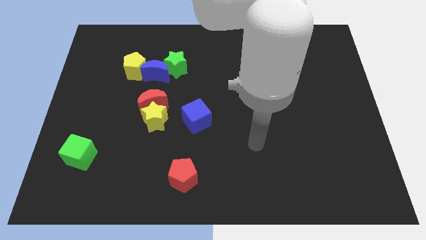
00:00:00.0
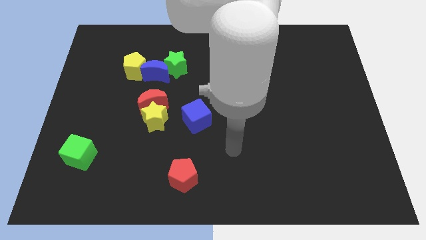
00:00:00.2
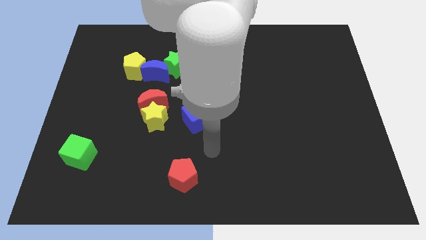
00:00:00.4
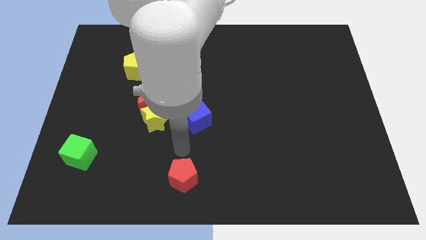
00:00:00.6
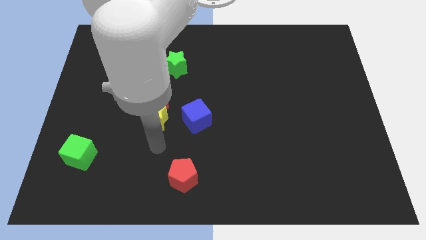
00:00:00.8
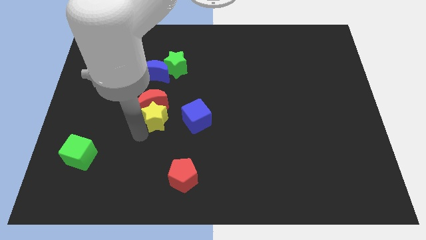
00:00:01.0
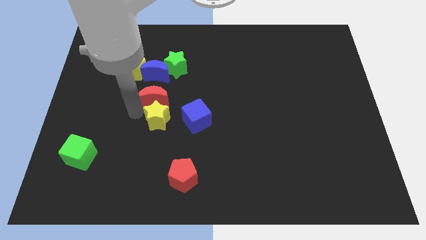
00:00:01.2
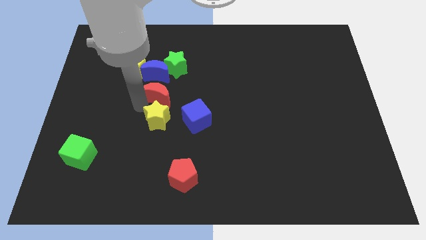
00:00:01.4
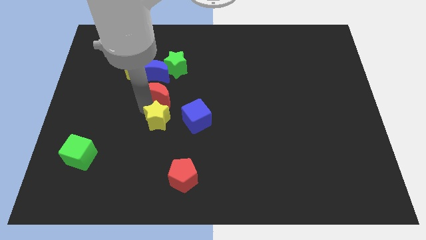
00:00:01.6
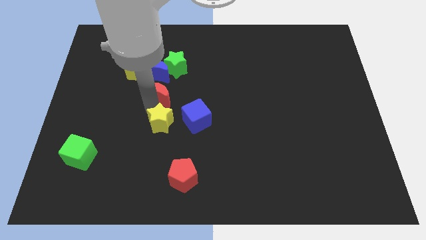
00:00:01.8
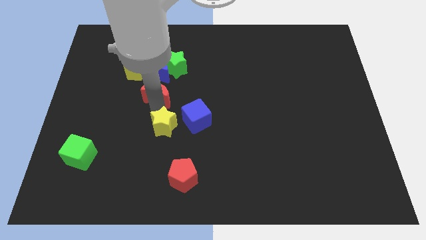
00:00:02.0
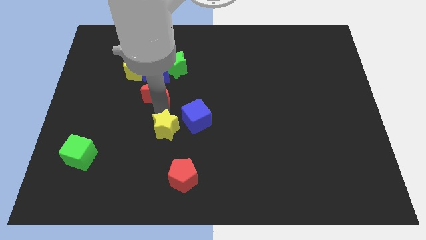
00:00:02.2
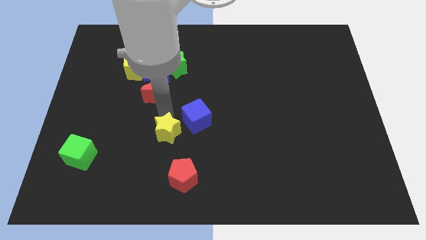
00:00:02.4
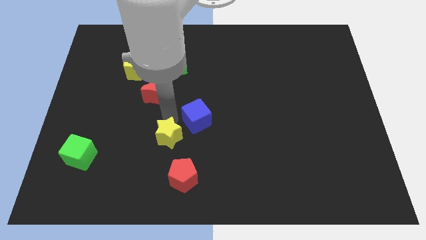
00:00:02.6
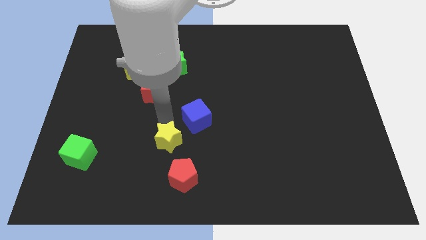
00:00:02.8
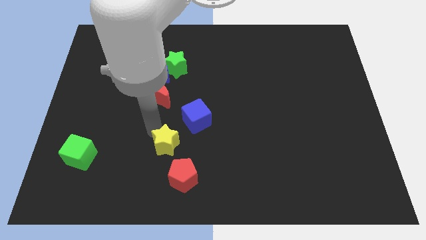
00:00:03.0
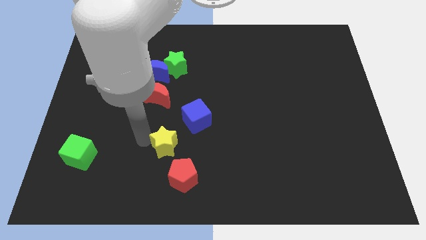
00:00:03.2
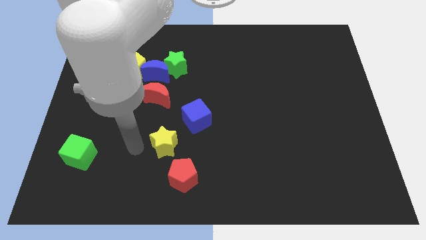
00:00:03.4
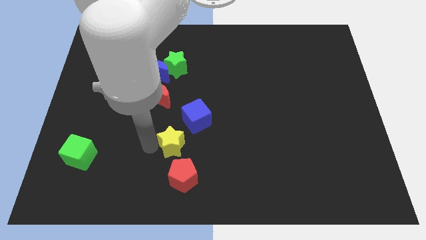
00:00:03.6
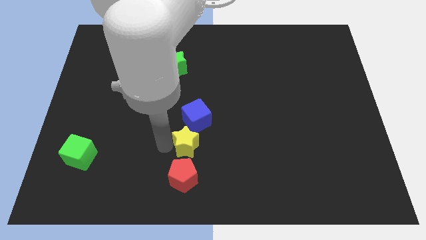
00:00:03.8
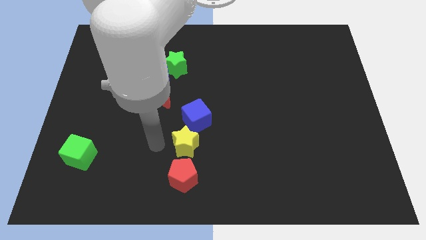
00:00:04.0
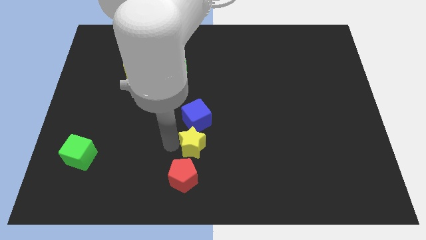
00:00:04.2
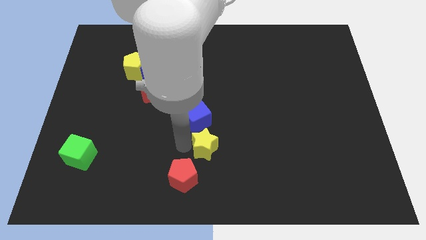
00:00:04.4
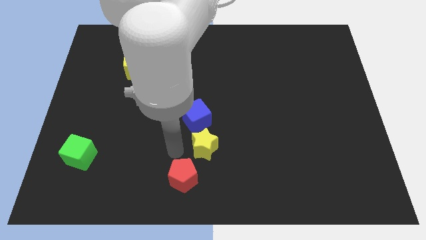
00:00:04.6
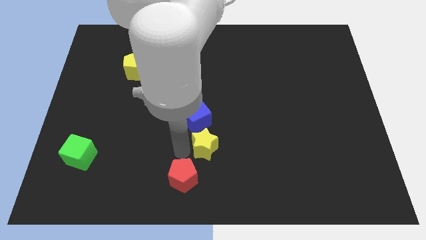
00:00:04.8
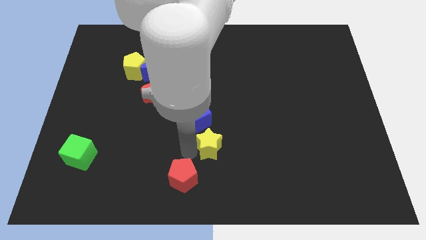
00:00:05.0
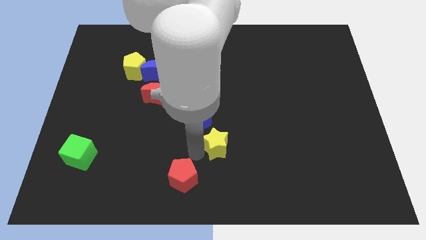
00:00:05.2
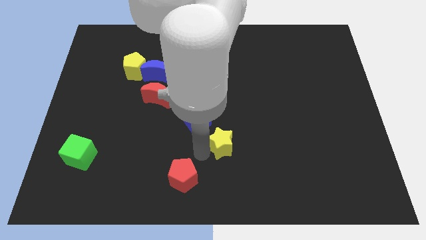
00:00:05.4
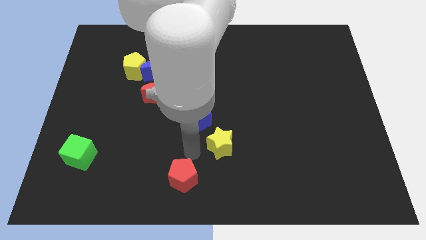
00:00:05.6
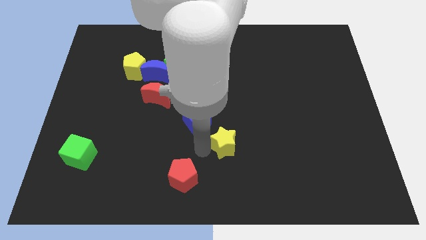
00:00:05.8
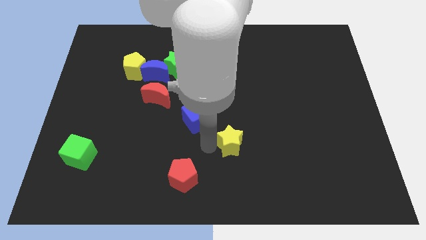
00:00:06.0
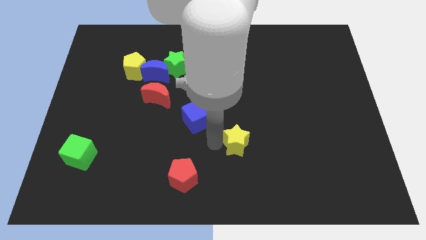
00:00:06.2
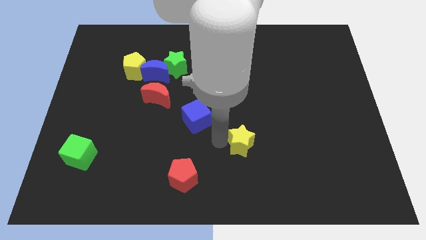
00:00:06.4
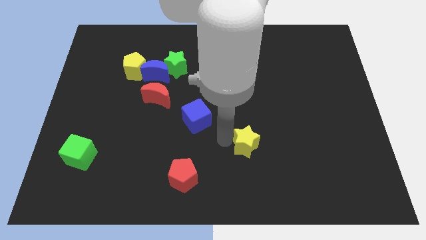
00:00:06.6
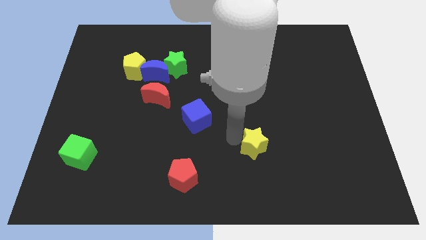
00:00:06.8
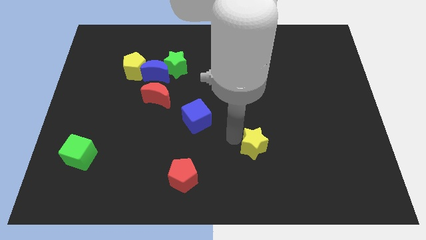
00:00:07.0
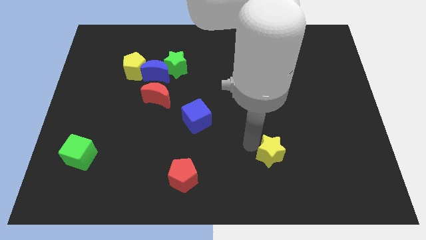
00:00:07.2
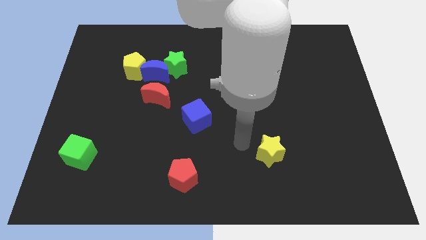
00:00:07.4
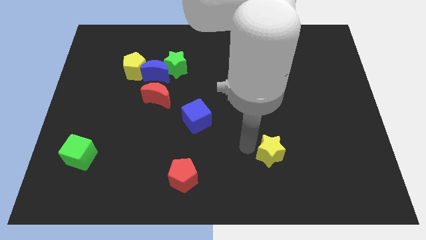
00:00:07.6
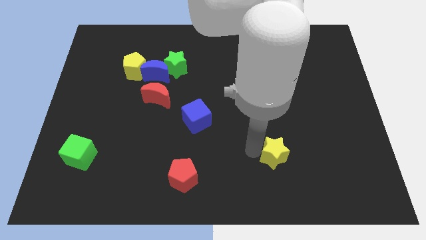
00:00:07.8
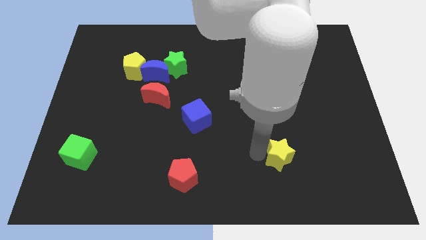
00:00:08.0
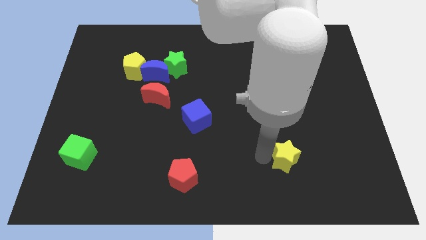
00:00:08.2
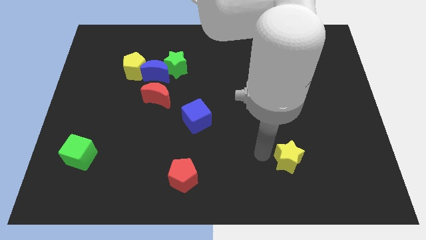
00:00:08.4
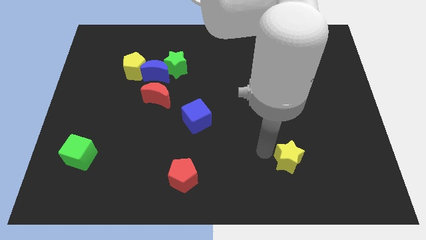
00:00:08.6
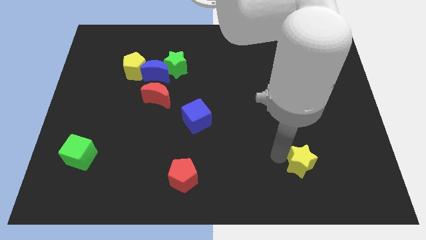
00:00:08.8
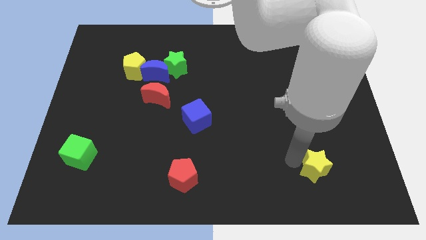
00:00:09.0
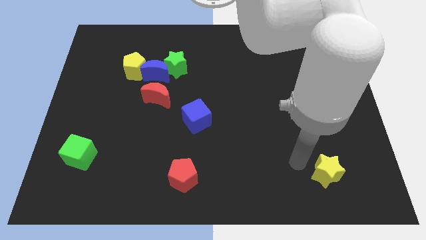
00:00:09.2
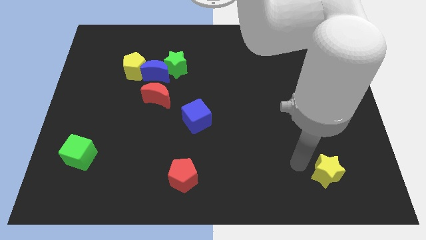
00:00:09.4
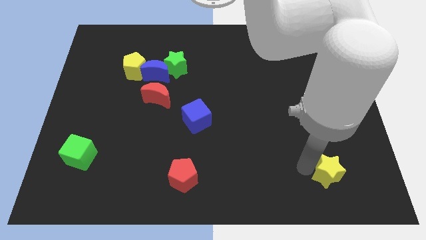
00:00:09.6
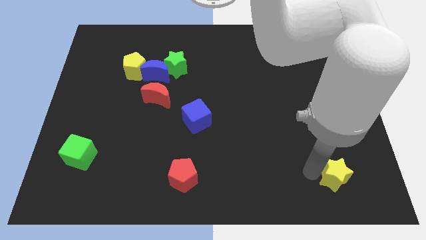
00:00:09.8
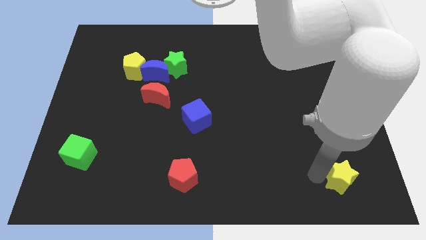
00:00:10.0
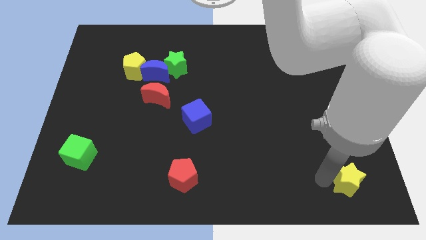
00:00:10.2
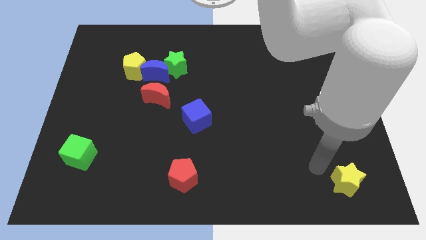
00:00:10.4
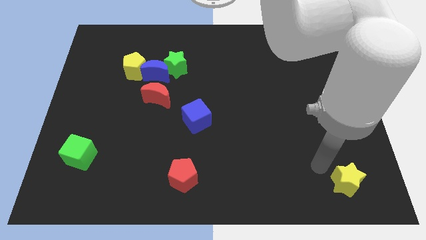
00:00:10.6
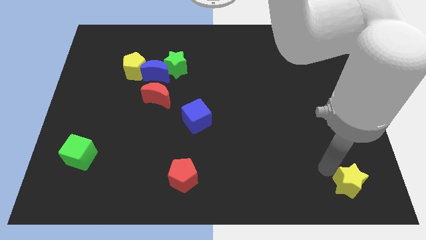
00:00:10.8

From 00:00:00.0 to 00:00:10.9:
slide the yellow star to the bottom right corner

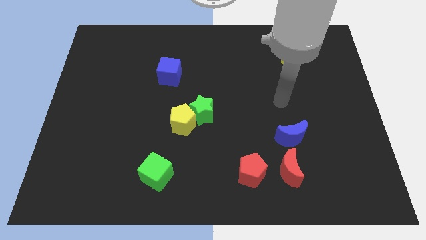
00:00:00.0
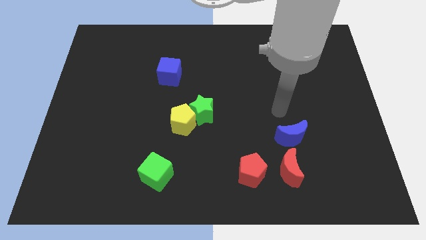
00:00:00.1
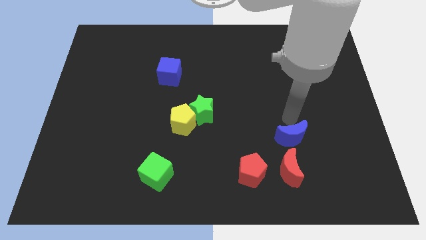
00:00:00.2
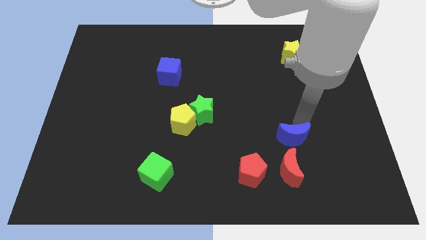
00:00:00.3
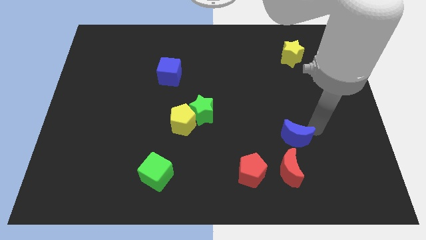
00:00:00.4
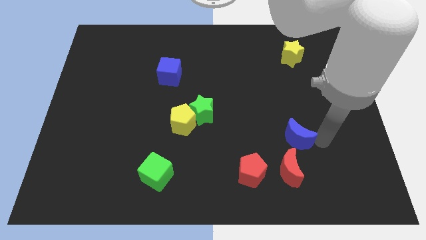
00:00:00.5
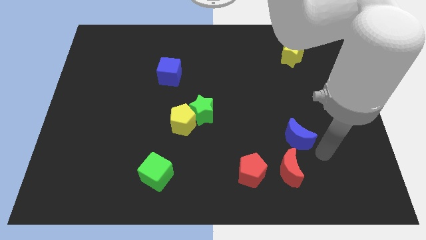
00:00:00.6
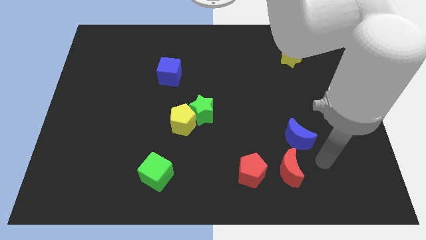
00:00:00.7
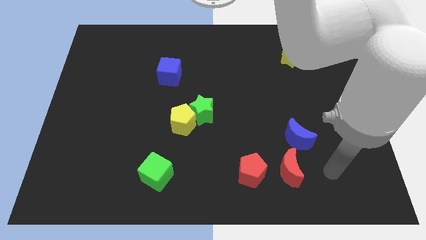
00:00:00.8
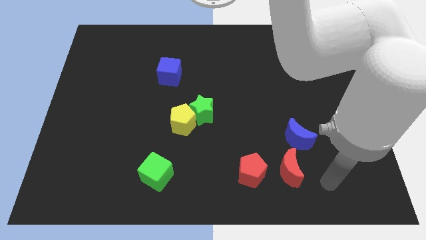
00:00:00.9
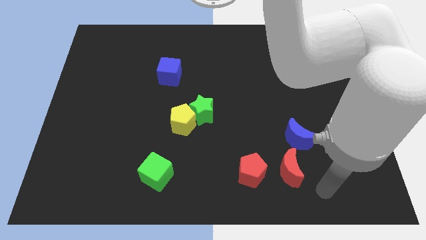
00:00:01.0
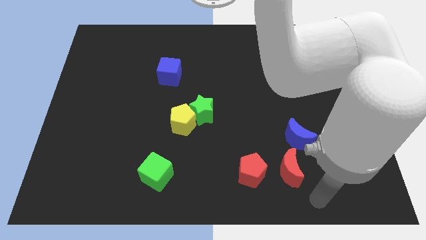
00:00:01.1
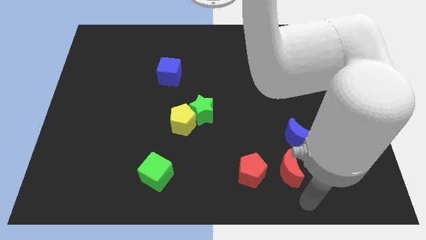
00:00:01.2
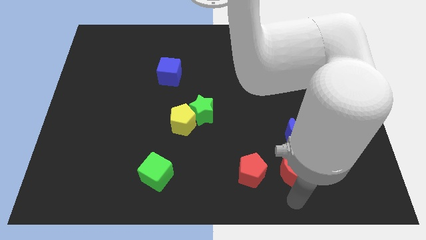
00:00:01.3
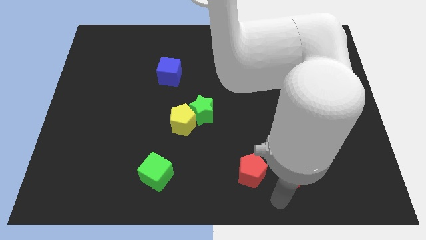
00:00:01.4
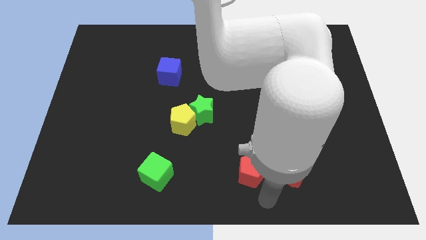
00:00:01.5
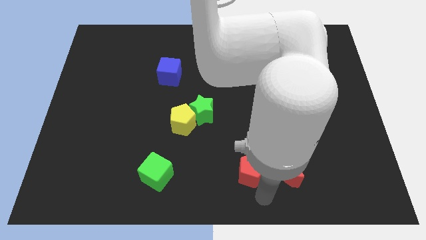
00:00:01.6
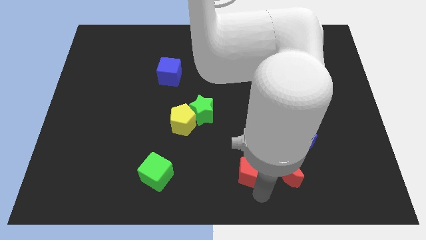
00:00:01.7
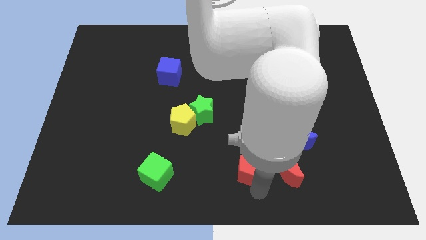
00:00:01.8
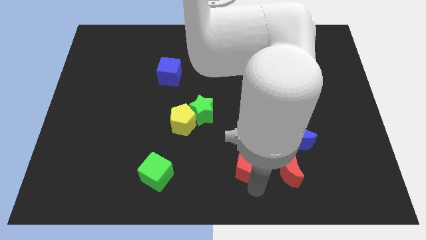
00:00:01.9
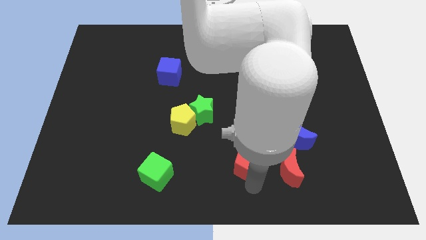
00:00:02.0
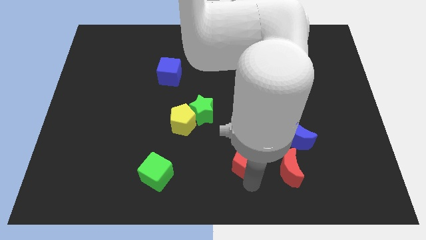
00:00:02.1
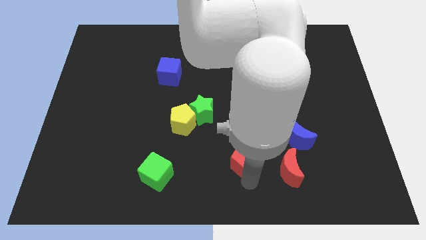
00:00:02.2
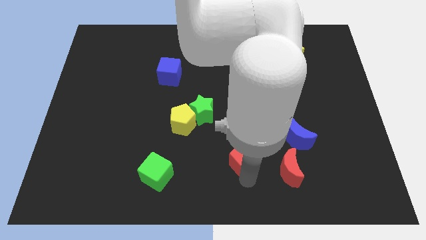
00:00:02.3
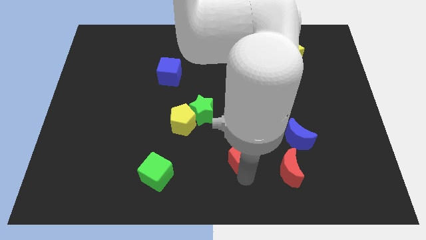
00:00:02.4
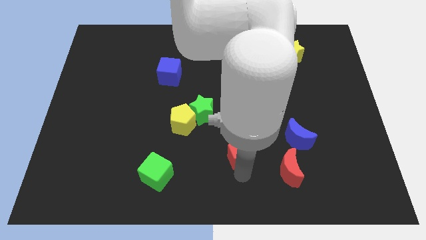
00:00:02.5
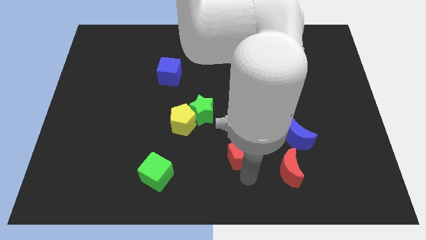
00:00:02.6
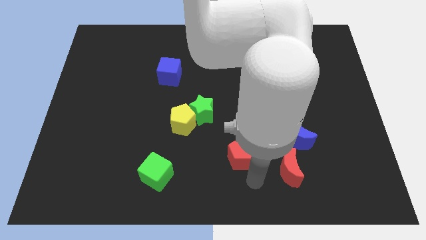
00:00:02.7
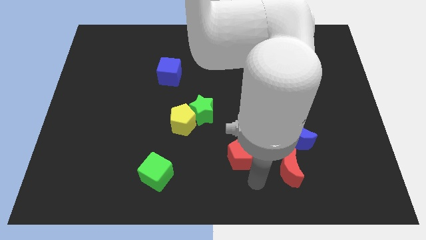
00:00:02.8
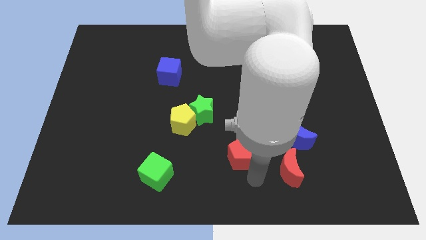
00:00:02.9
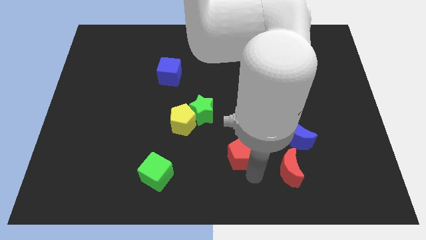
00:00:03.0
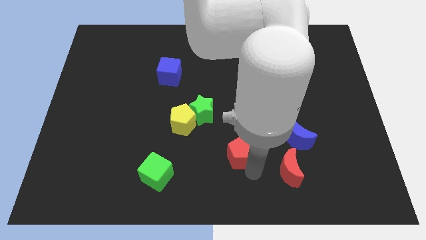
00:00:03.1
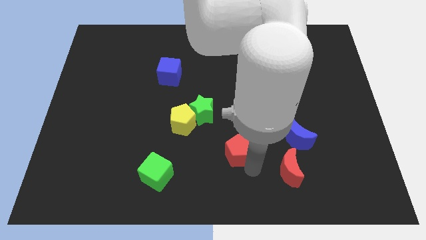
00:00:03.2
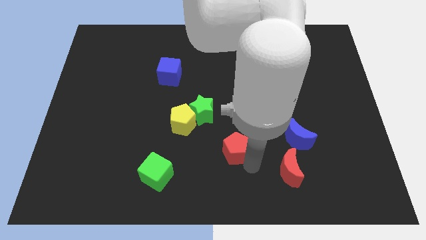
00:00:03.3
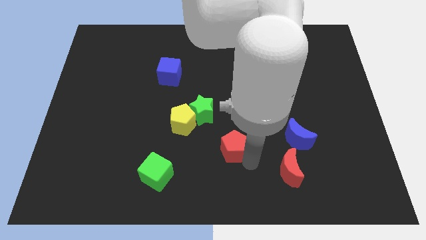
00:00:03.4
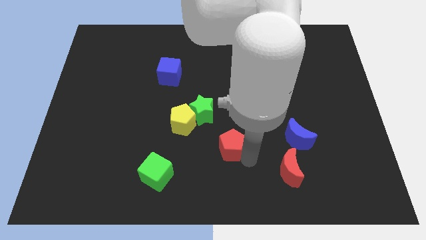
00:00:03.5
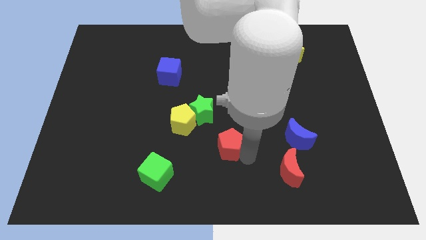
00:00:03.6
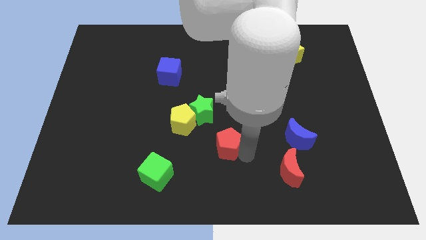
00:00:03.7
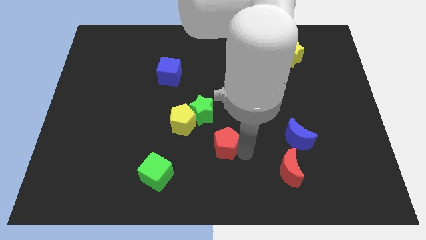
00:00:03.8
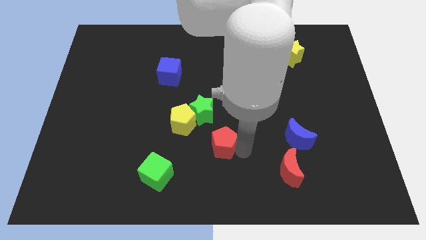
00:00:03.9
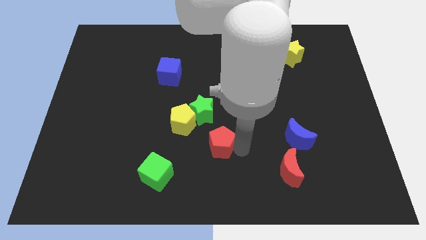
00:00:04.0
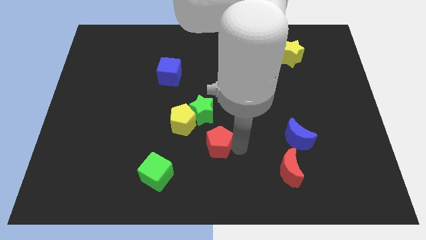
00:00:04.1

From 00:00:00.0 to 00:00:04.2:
push the red pentagon to the middle
